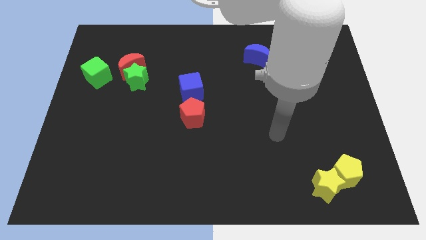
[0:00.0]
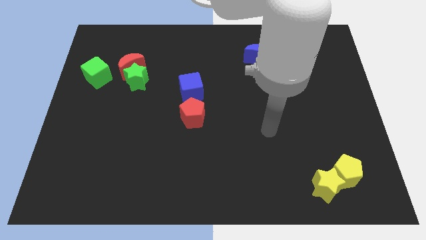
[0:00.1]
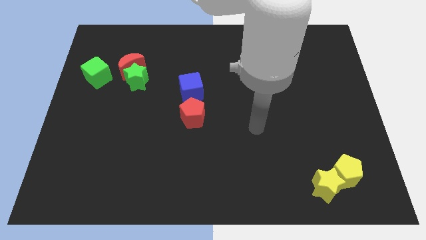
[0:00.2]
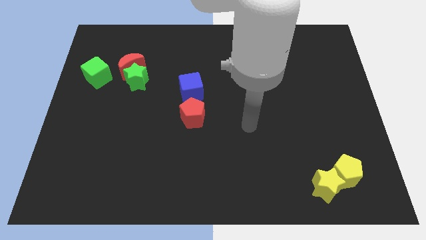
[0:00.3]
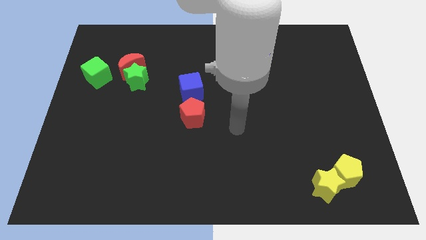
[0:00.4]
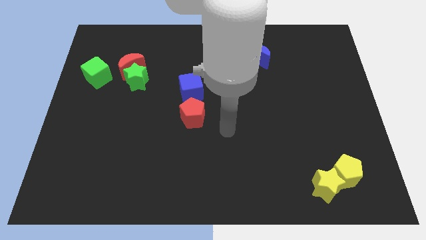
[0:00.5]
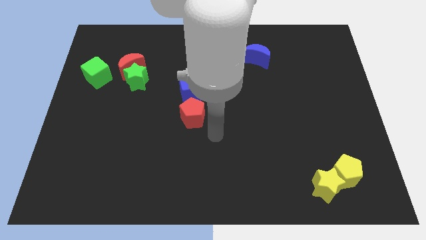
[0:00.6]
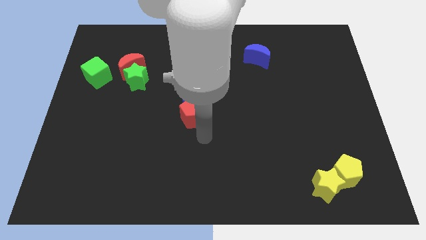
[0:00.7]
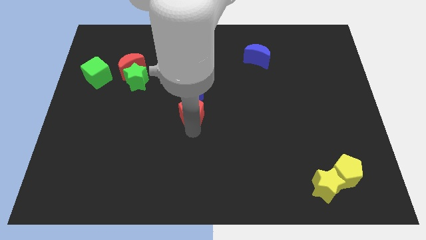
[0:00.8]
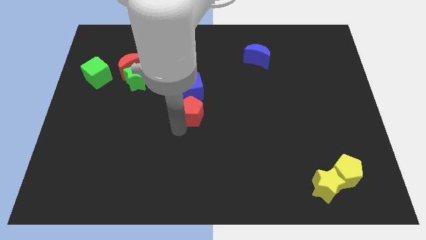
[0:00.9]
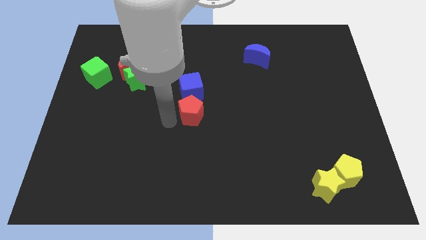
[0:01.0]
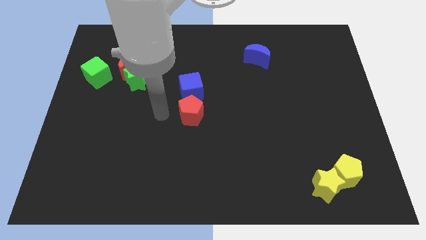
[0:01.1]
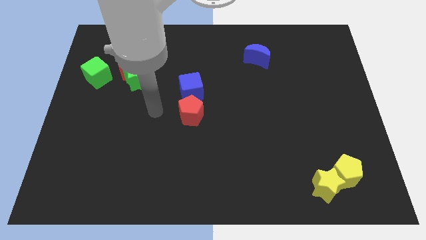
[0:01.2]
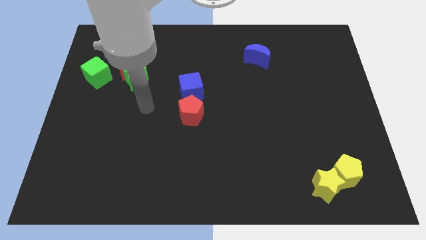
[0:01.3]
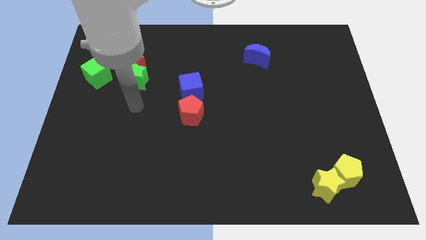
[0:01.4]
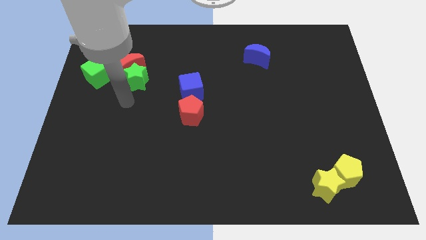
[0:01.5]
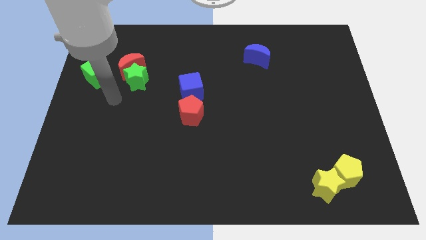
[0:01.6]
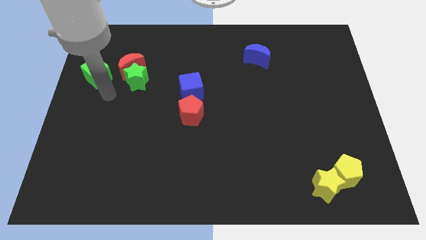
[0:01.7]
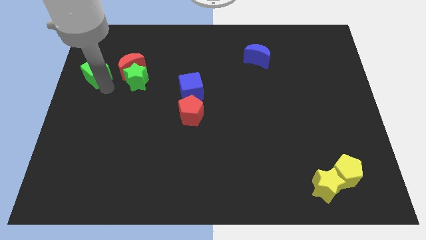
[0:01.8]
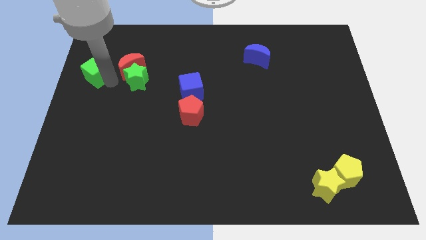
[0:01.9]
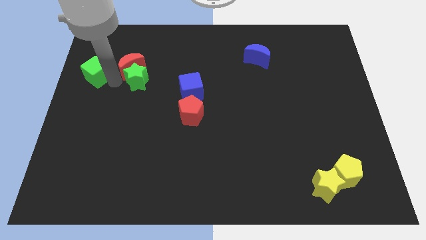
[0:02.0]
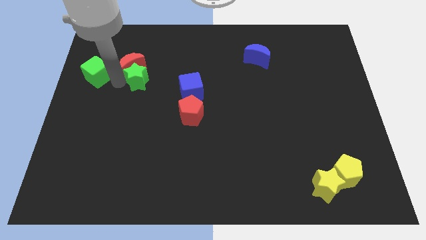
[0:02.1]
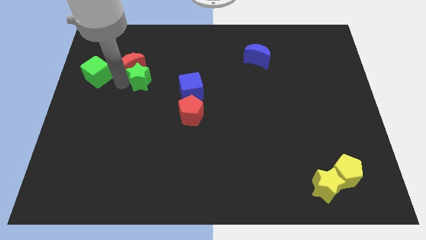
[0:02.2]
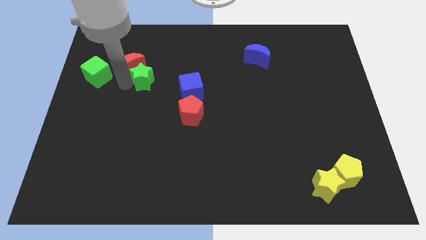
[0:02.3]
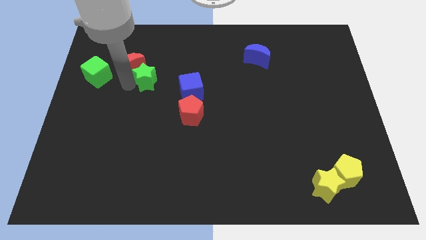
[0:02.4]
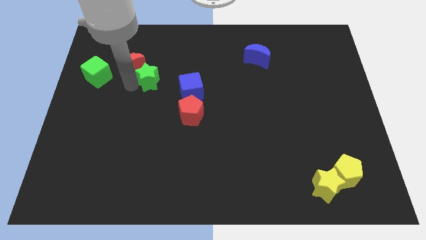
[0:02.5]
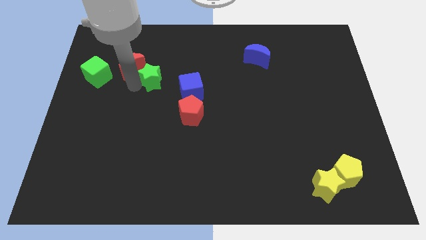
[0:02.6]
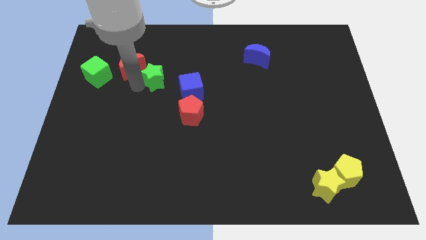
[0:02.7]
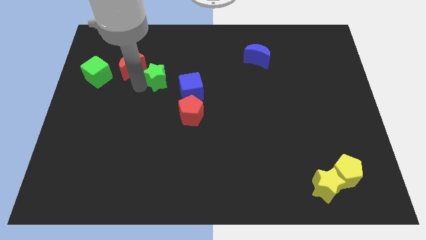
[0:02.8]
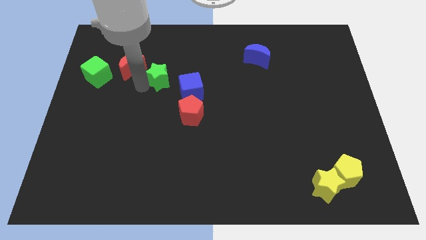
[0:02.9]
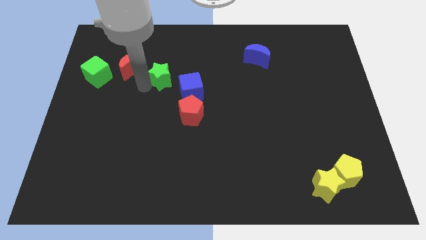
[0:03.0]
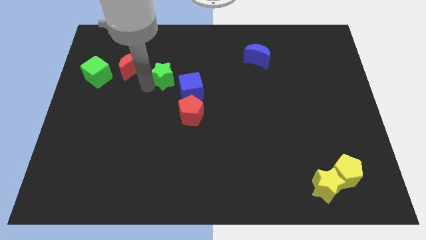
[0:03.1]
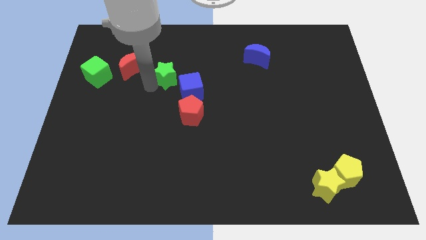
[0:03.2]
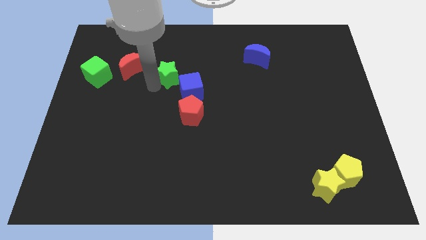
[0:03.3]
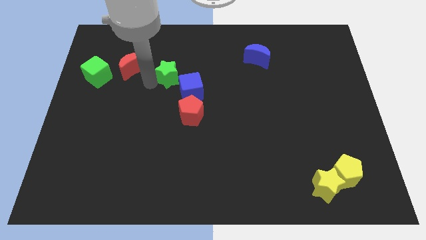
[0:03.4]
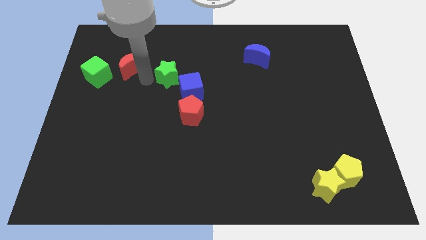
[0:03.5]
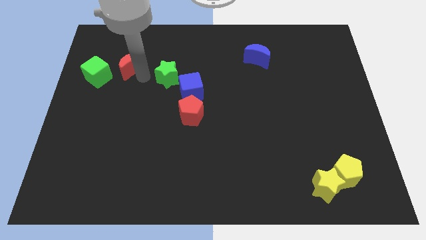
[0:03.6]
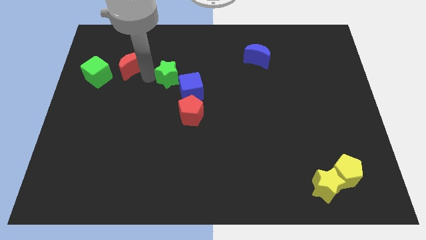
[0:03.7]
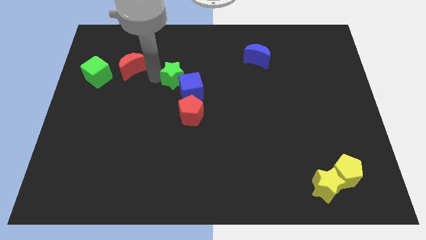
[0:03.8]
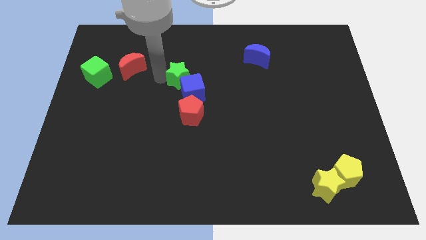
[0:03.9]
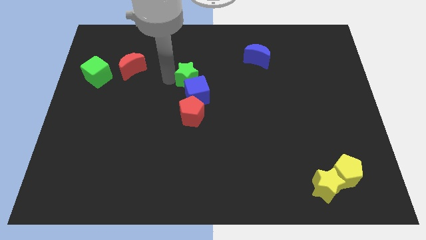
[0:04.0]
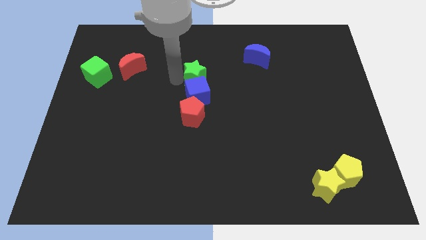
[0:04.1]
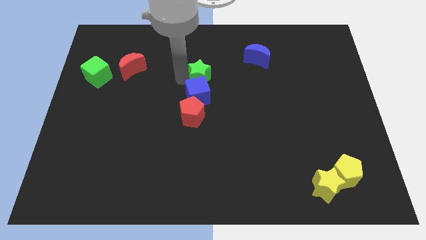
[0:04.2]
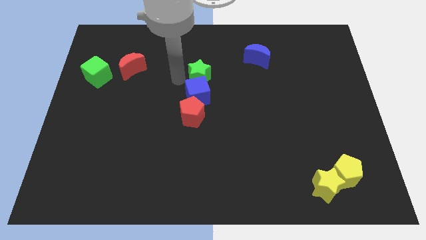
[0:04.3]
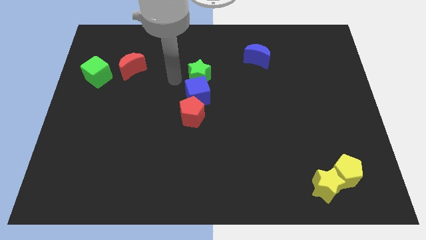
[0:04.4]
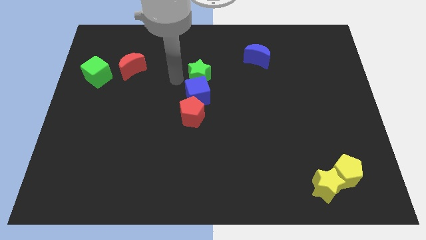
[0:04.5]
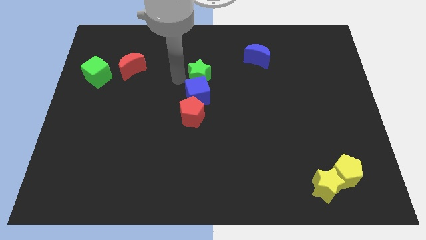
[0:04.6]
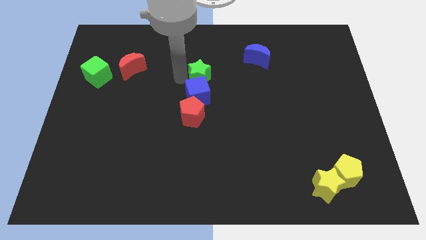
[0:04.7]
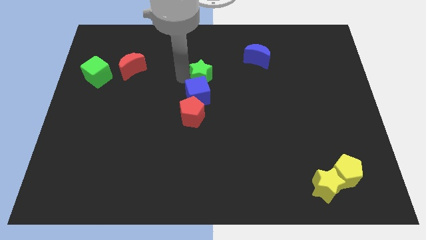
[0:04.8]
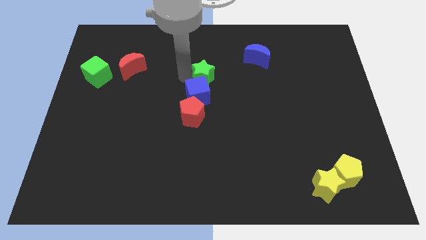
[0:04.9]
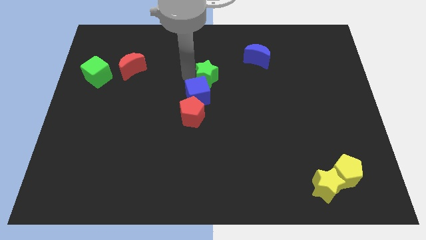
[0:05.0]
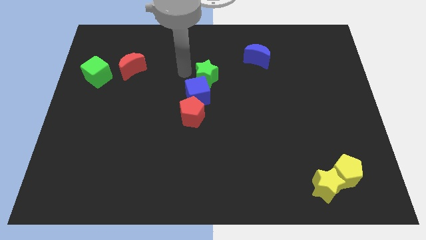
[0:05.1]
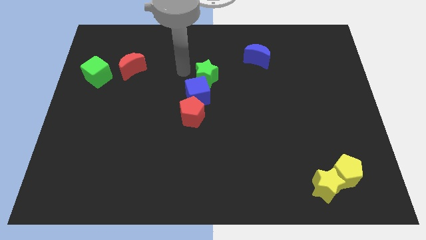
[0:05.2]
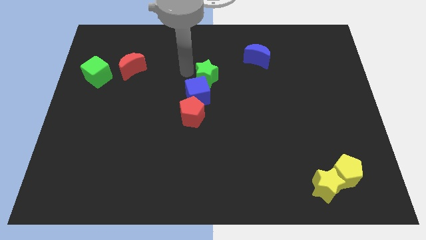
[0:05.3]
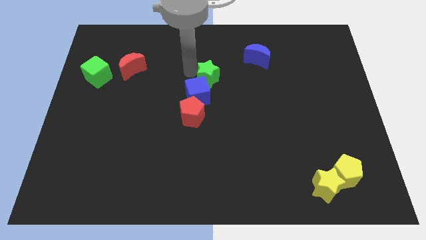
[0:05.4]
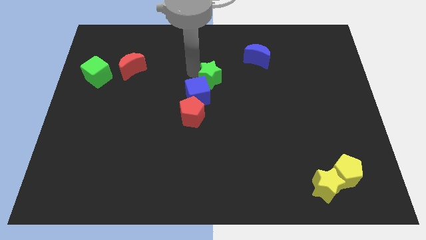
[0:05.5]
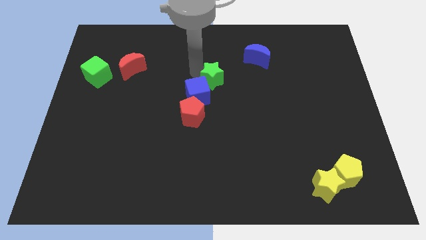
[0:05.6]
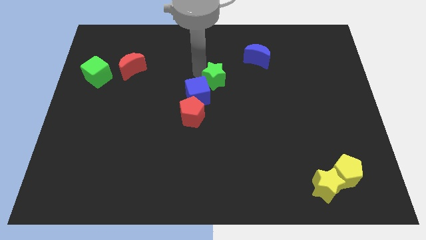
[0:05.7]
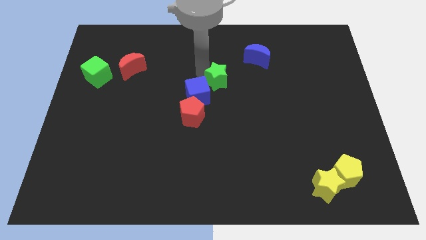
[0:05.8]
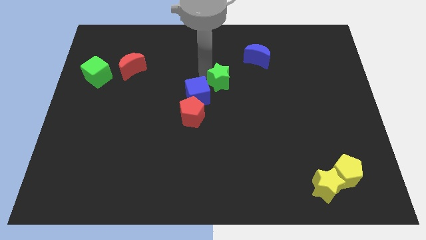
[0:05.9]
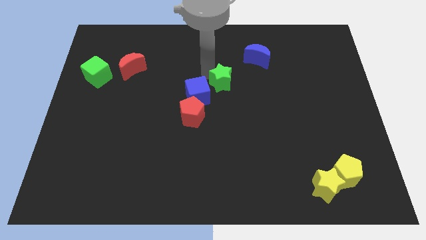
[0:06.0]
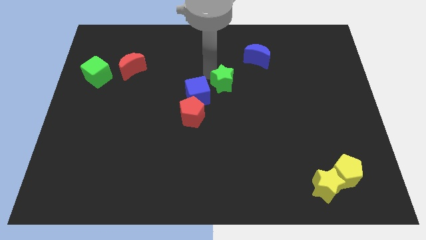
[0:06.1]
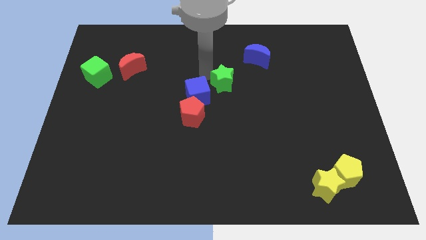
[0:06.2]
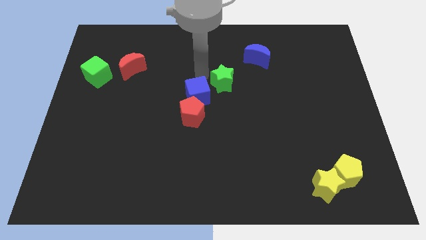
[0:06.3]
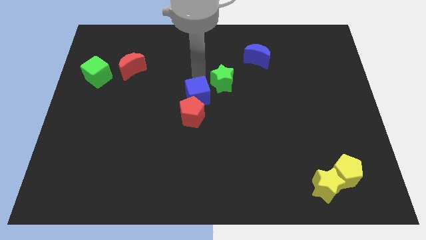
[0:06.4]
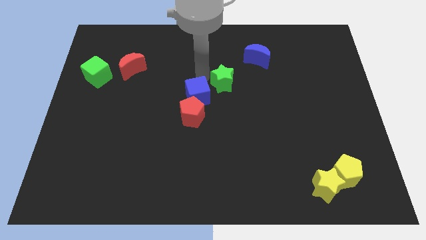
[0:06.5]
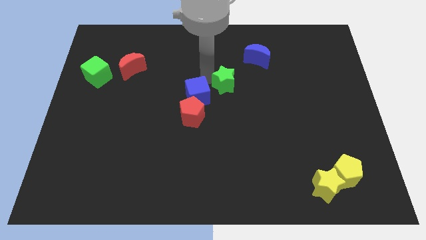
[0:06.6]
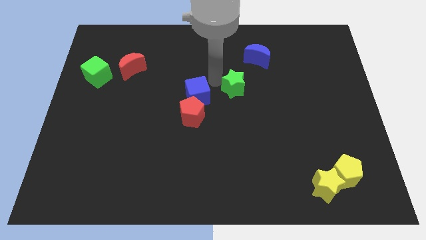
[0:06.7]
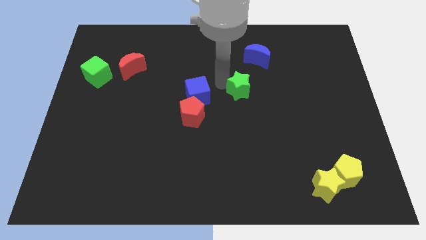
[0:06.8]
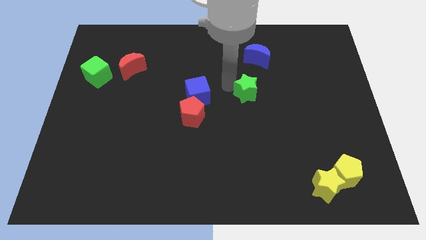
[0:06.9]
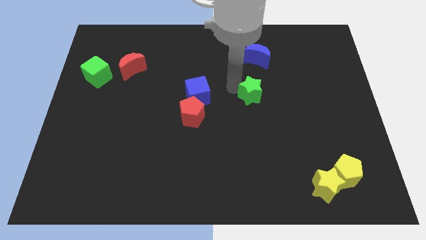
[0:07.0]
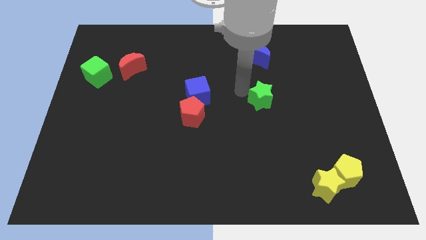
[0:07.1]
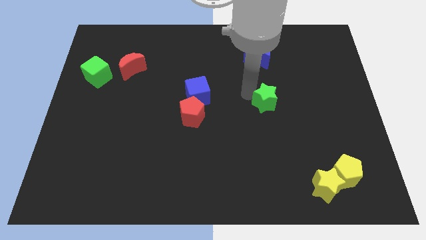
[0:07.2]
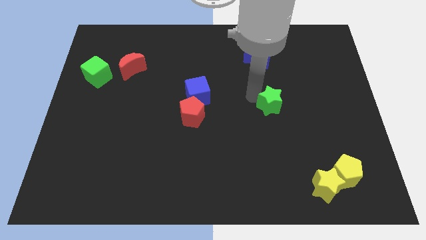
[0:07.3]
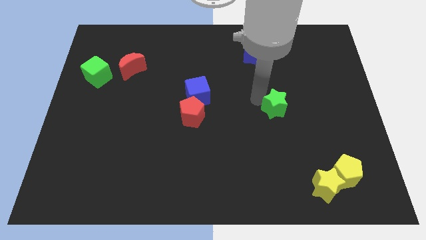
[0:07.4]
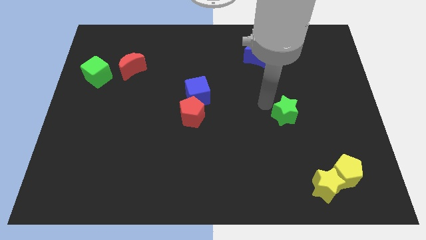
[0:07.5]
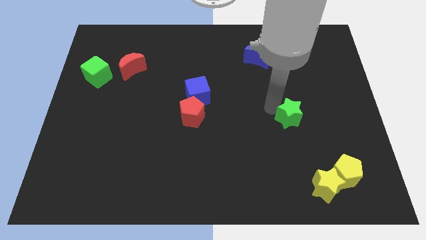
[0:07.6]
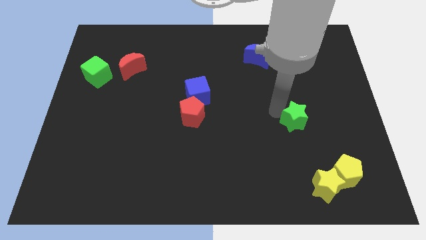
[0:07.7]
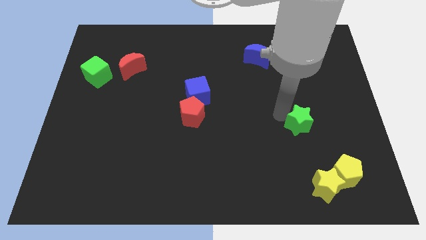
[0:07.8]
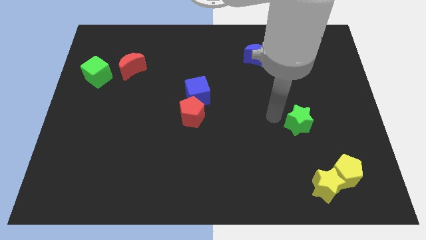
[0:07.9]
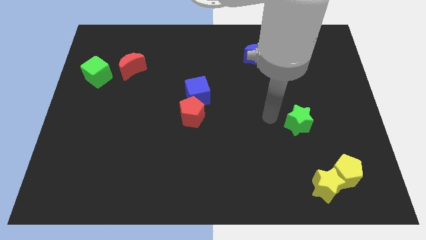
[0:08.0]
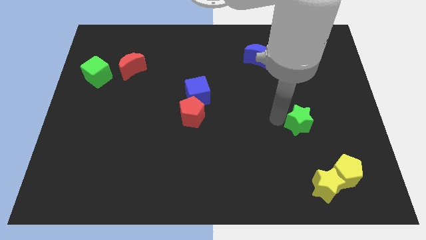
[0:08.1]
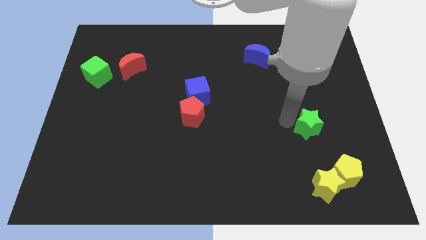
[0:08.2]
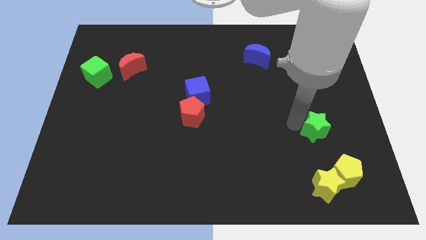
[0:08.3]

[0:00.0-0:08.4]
put the green star to the top side of the yellow pentagon

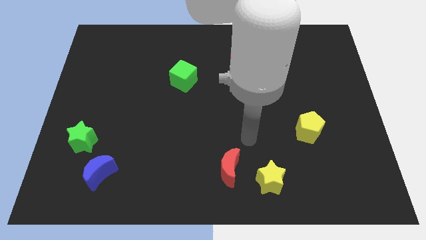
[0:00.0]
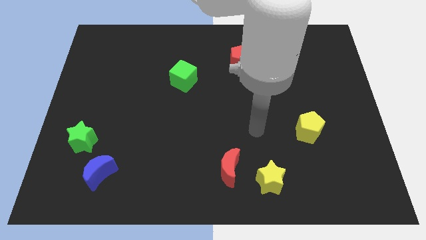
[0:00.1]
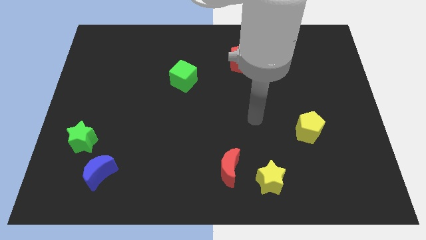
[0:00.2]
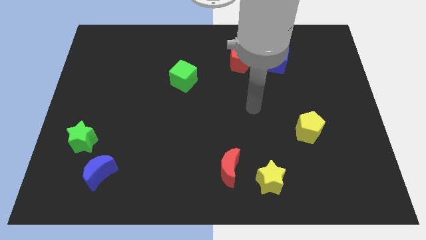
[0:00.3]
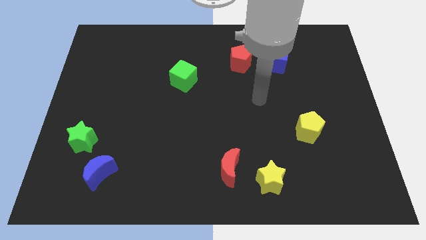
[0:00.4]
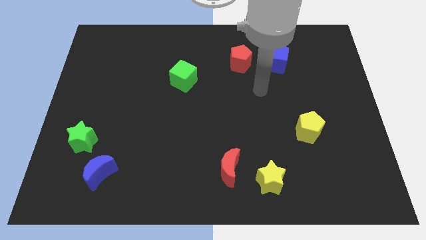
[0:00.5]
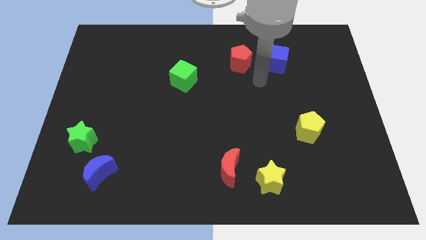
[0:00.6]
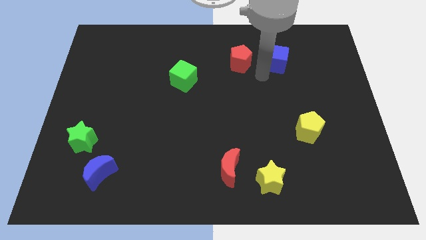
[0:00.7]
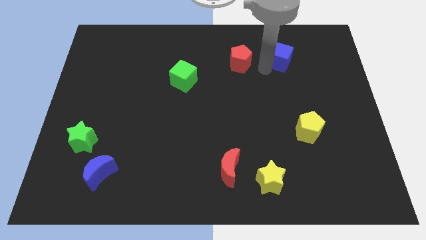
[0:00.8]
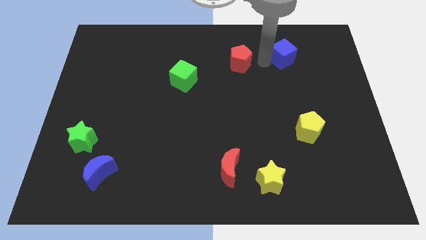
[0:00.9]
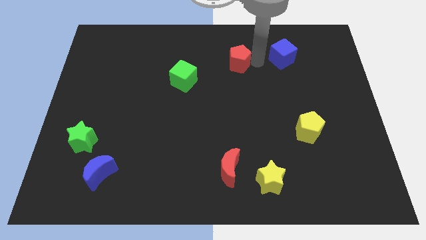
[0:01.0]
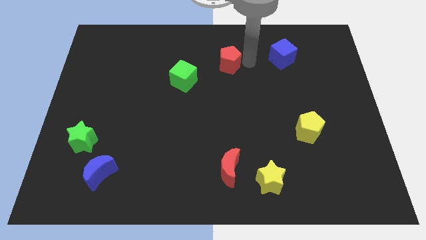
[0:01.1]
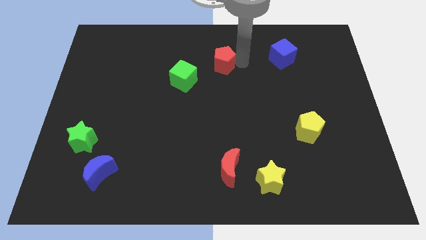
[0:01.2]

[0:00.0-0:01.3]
push the red pentagon diagonally up and to the right of the green cube
